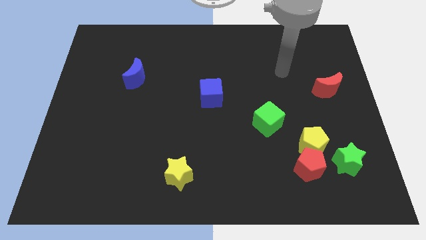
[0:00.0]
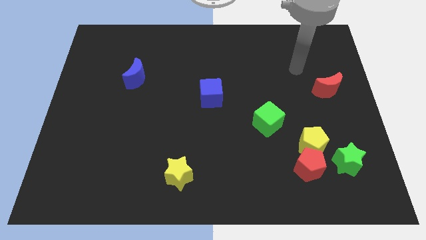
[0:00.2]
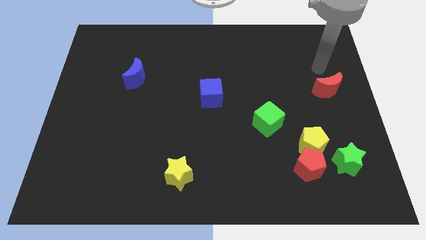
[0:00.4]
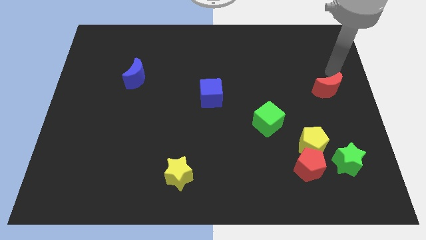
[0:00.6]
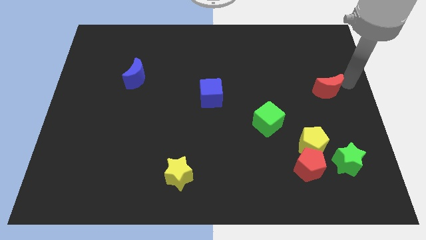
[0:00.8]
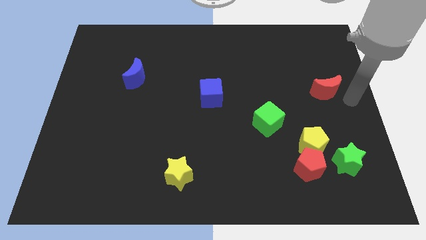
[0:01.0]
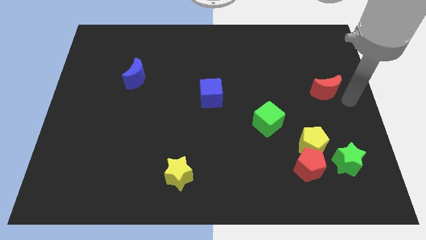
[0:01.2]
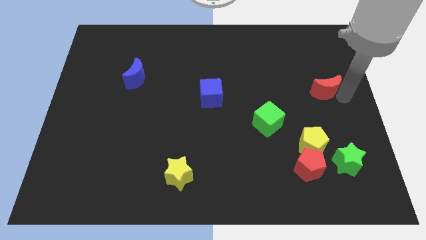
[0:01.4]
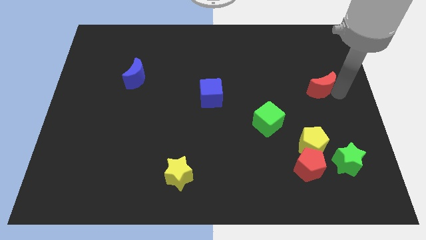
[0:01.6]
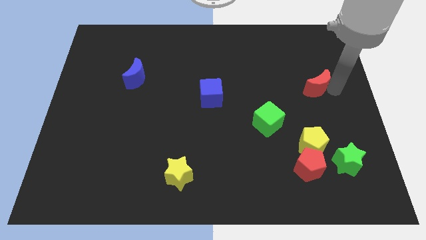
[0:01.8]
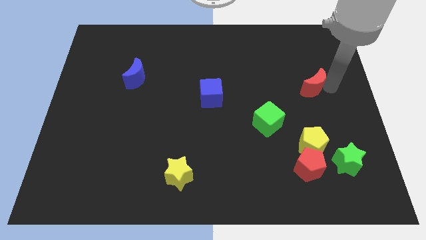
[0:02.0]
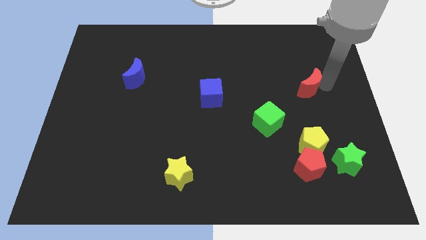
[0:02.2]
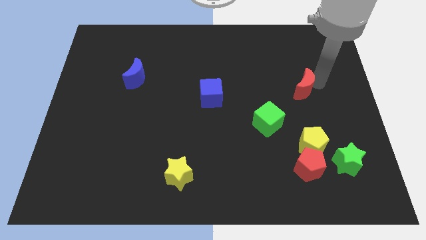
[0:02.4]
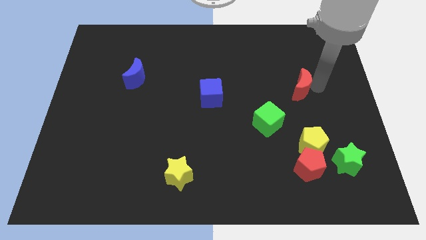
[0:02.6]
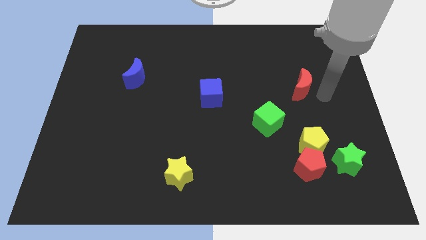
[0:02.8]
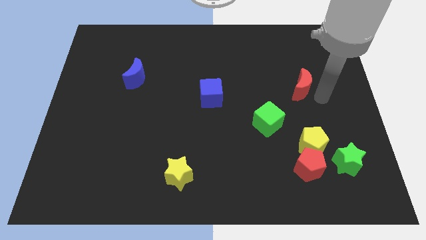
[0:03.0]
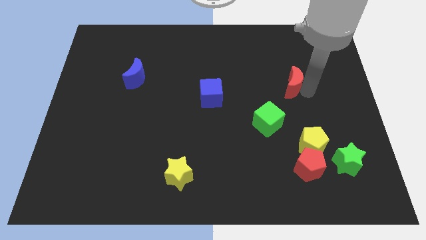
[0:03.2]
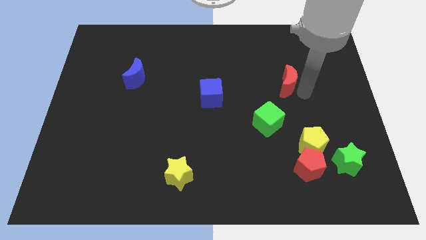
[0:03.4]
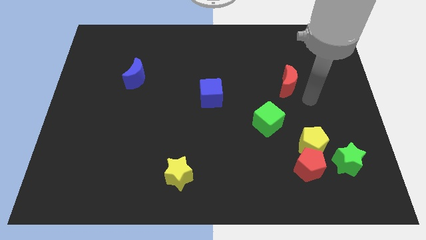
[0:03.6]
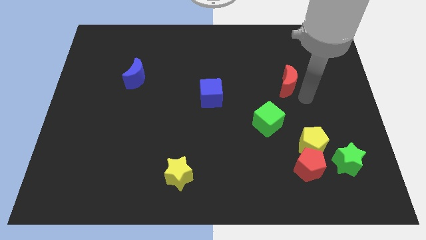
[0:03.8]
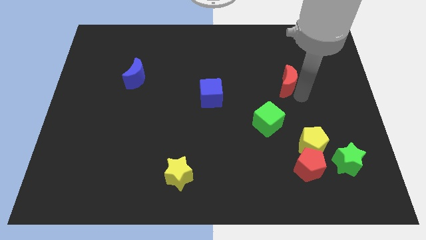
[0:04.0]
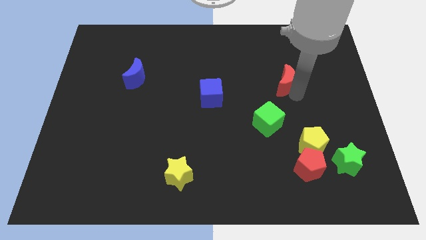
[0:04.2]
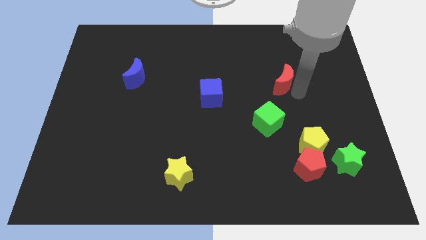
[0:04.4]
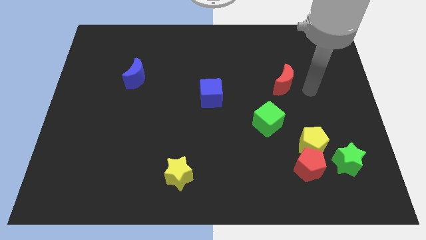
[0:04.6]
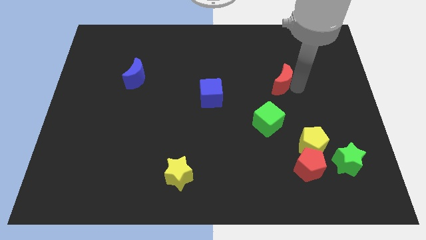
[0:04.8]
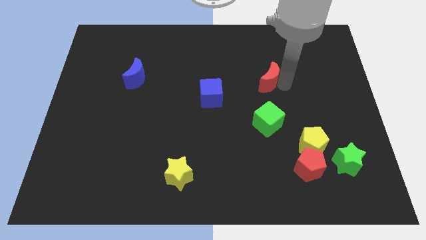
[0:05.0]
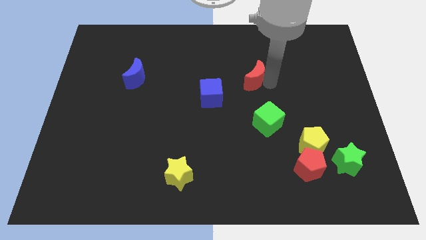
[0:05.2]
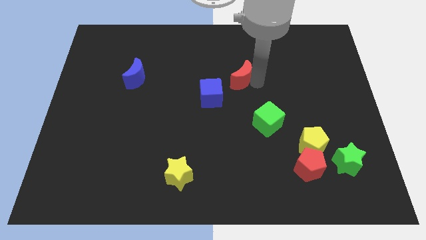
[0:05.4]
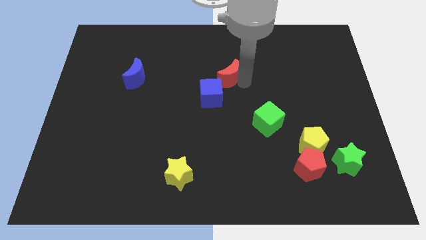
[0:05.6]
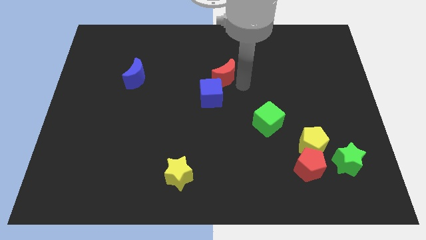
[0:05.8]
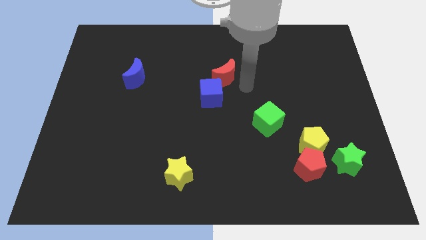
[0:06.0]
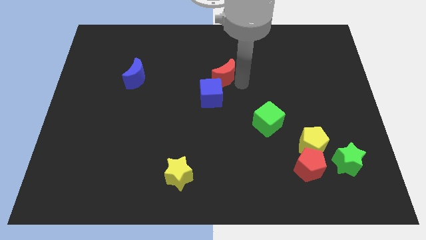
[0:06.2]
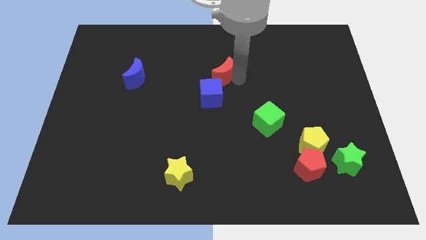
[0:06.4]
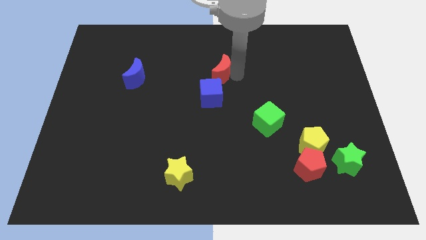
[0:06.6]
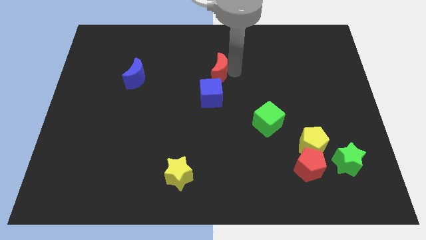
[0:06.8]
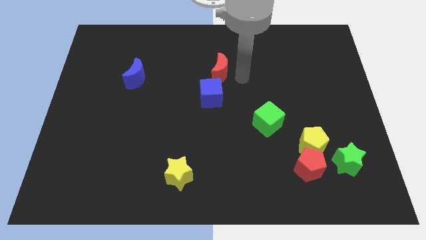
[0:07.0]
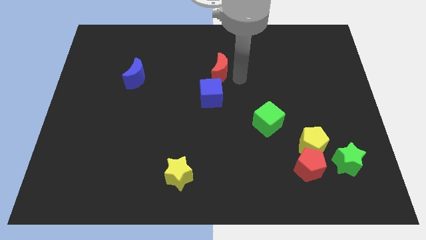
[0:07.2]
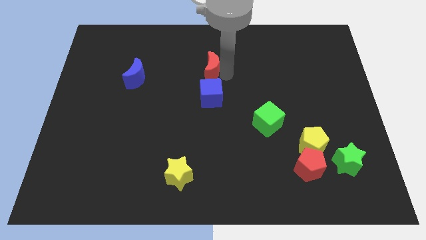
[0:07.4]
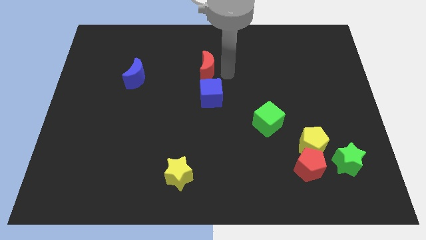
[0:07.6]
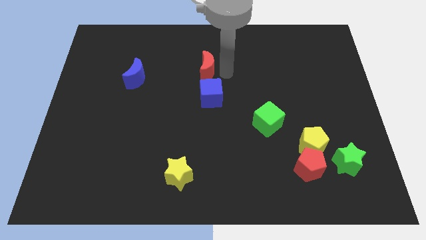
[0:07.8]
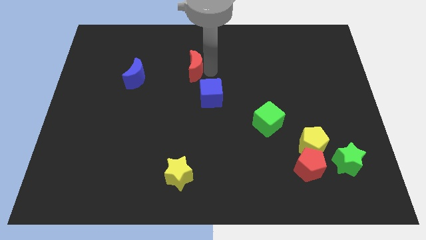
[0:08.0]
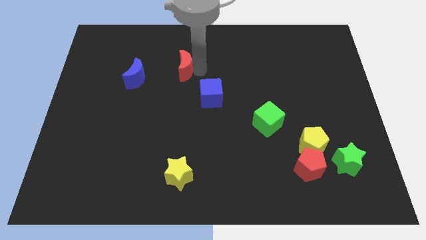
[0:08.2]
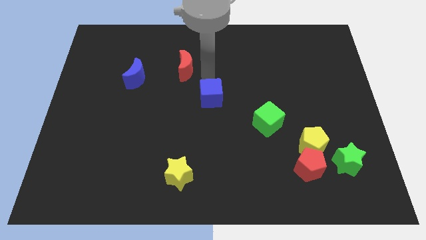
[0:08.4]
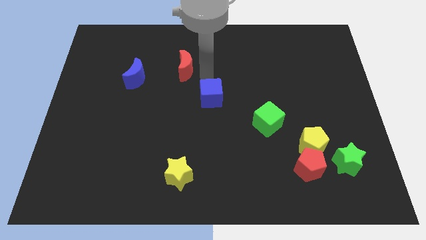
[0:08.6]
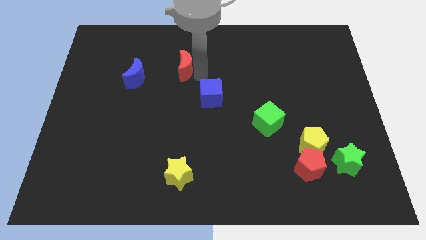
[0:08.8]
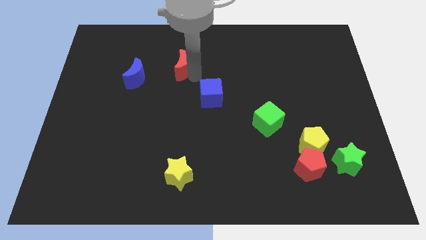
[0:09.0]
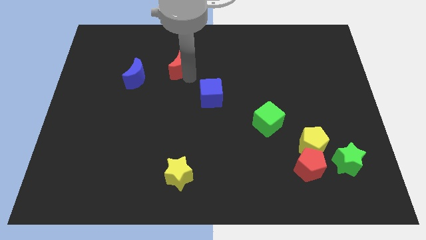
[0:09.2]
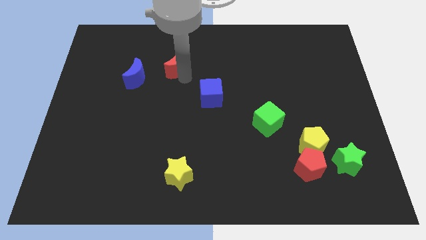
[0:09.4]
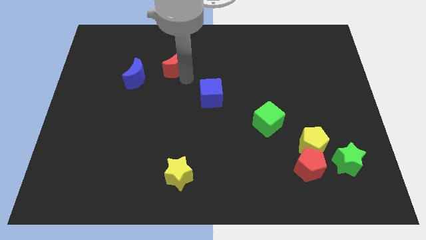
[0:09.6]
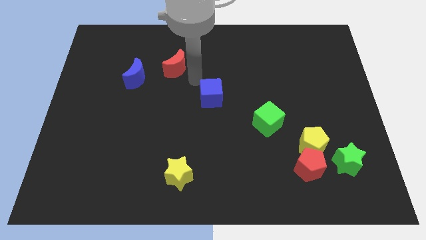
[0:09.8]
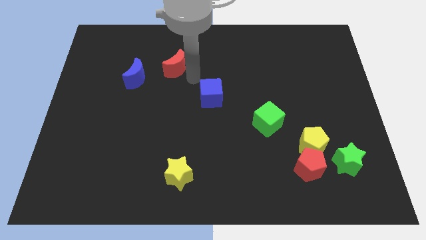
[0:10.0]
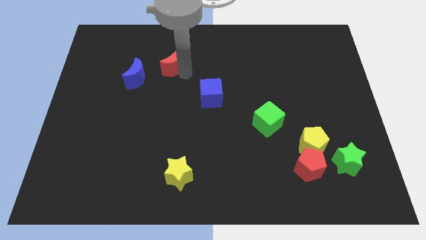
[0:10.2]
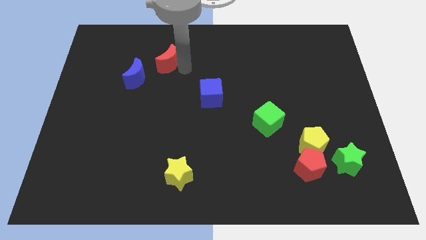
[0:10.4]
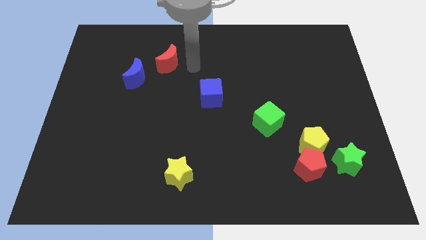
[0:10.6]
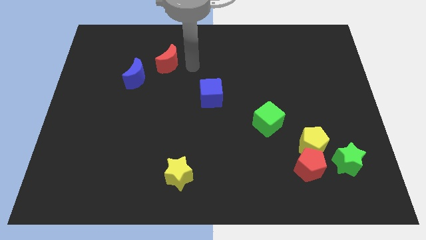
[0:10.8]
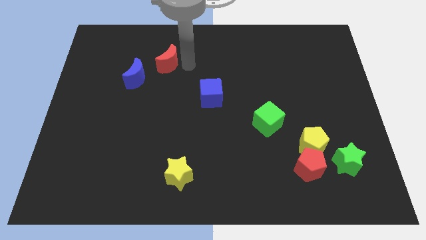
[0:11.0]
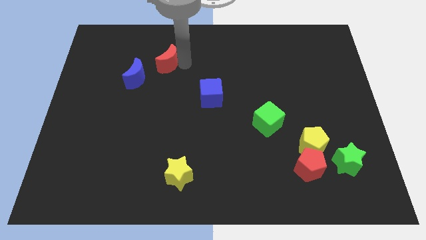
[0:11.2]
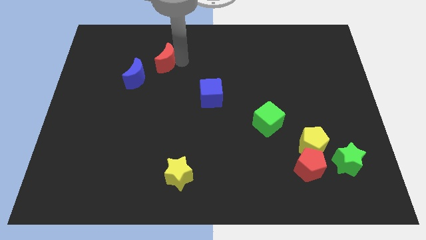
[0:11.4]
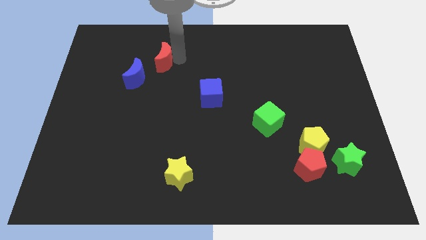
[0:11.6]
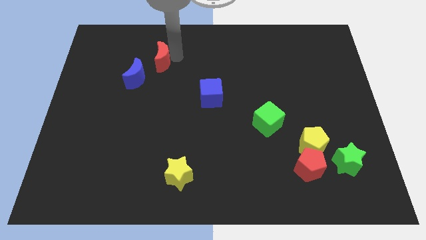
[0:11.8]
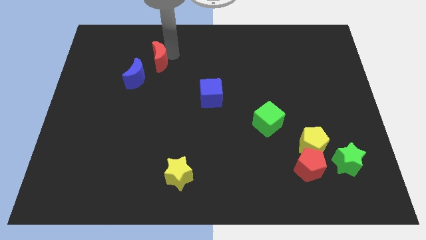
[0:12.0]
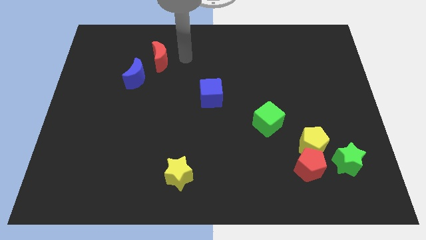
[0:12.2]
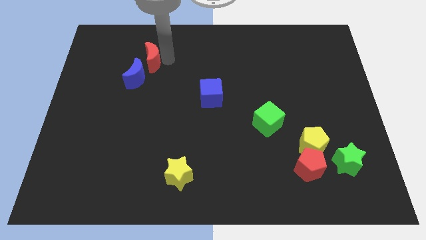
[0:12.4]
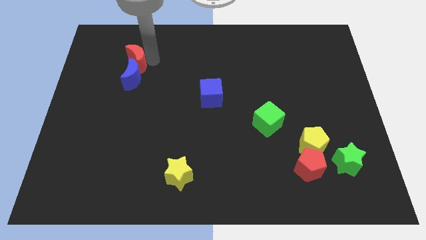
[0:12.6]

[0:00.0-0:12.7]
put the red moon to the top left of the blue moon

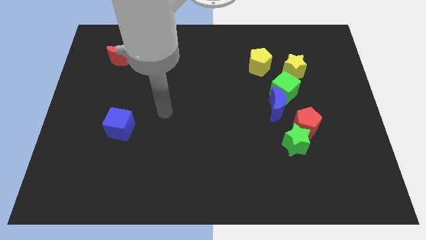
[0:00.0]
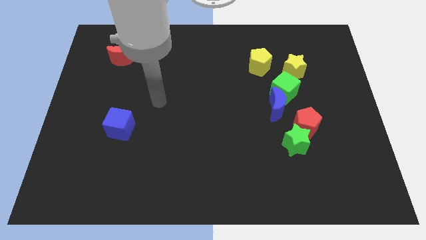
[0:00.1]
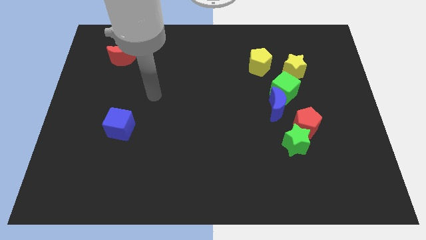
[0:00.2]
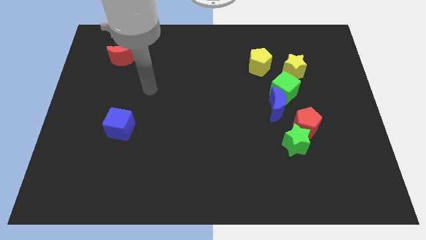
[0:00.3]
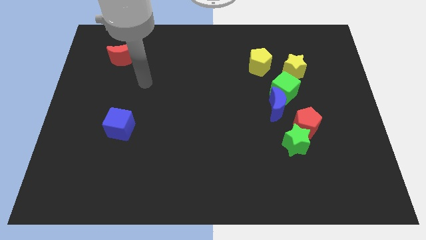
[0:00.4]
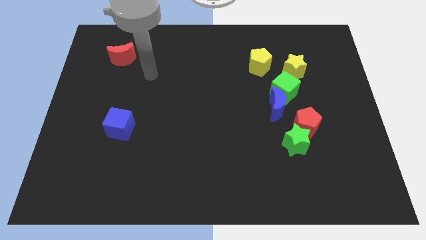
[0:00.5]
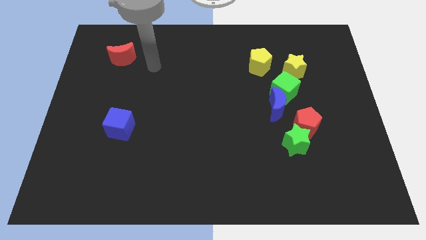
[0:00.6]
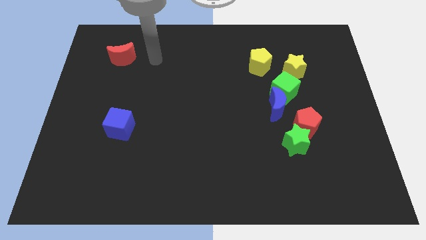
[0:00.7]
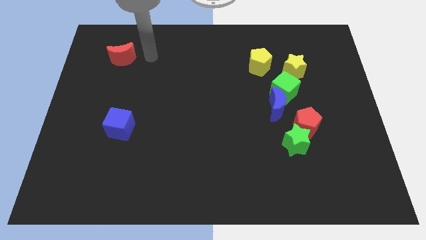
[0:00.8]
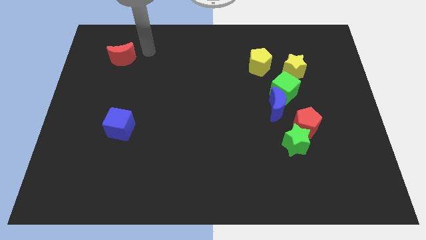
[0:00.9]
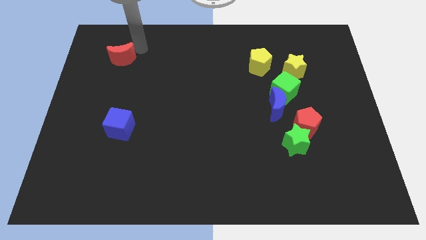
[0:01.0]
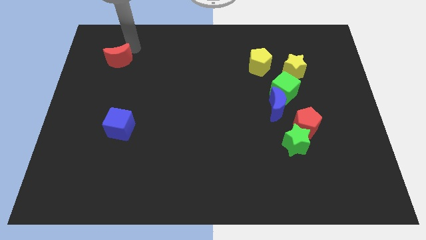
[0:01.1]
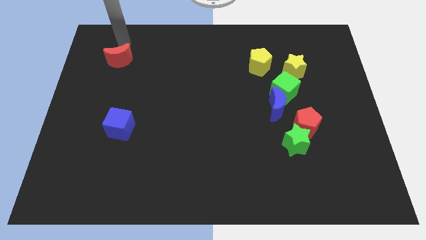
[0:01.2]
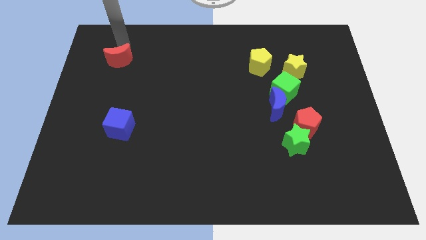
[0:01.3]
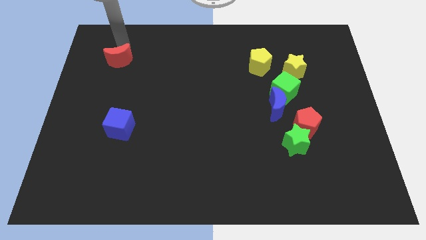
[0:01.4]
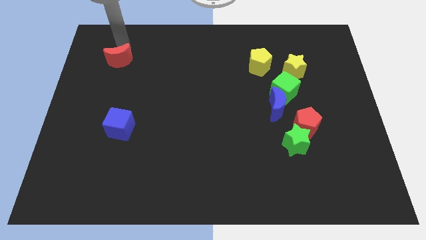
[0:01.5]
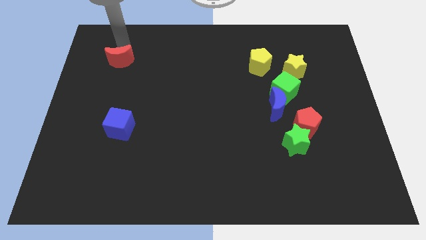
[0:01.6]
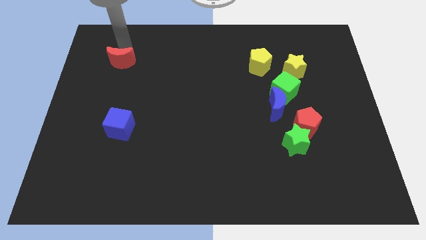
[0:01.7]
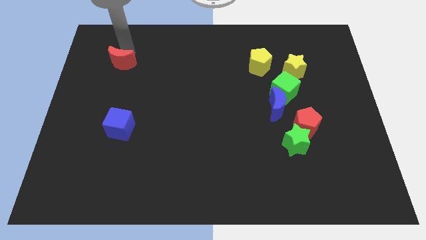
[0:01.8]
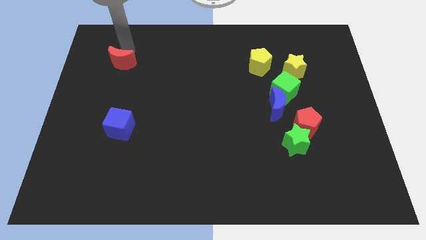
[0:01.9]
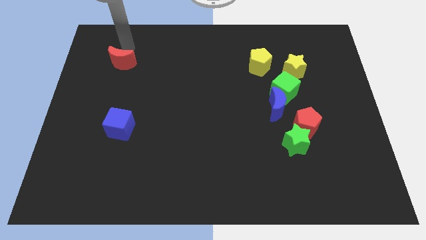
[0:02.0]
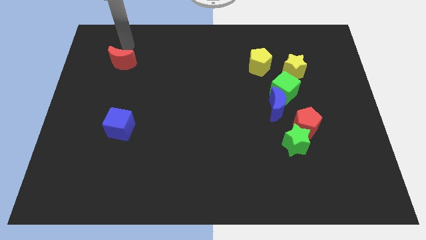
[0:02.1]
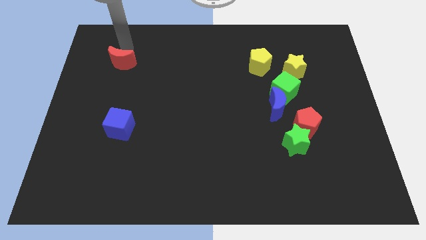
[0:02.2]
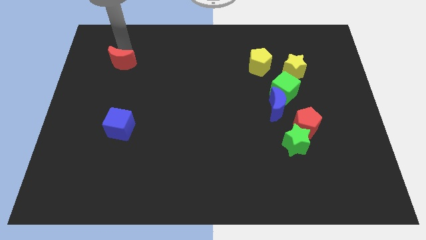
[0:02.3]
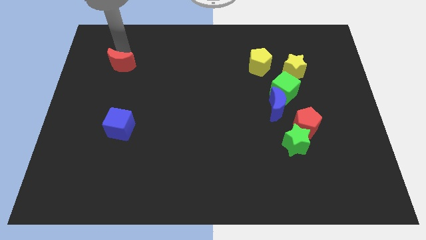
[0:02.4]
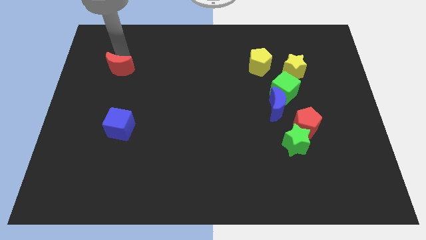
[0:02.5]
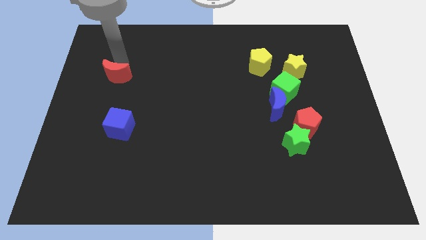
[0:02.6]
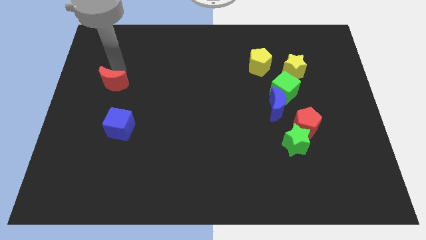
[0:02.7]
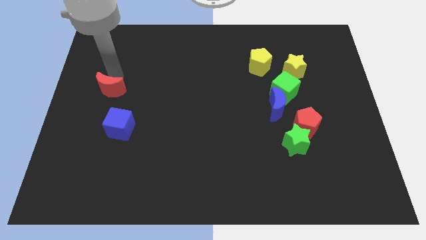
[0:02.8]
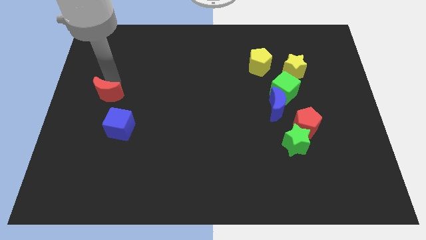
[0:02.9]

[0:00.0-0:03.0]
push the red moon to the top left of the blue cube
